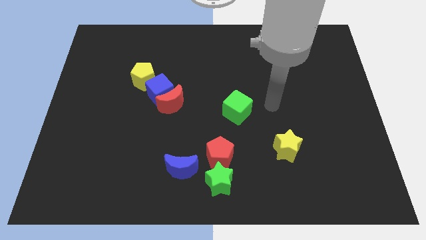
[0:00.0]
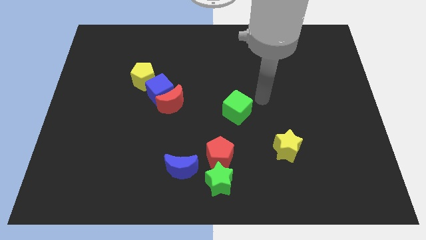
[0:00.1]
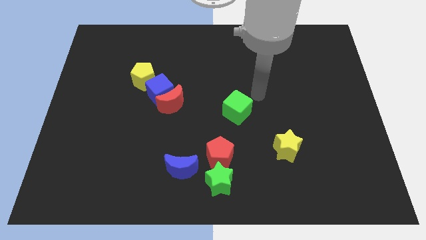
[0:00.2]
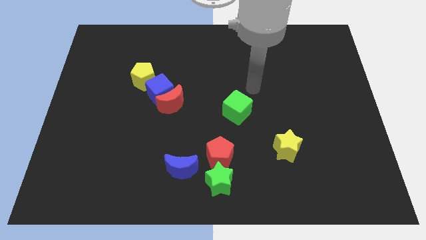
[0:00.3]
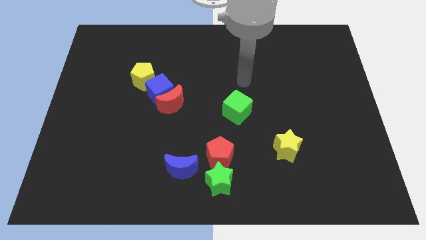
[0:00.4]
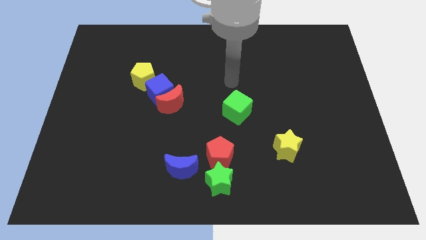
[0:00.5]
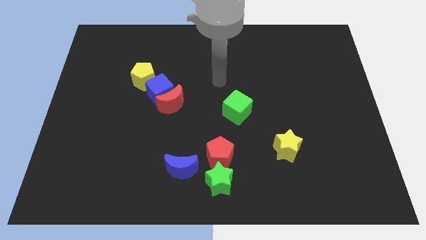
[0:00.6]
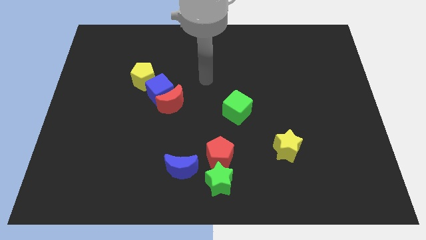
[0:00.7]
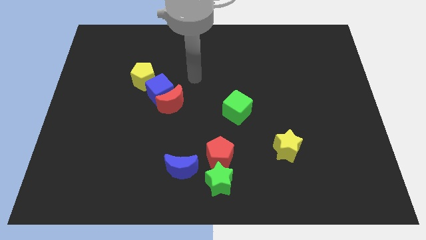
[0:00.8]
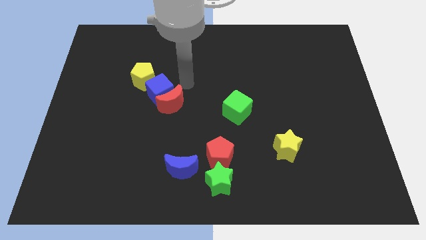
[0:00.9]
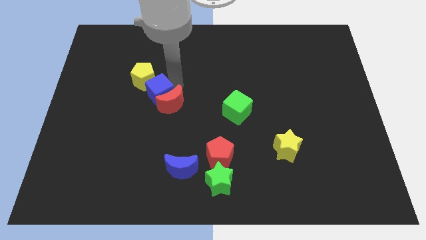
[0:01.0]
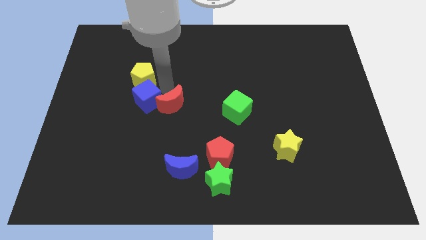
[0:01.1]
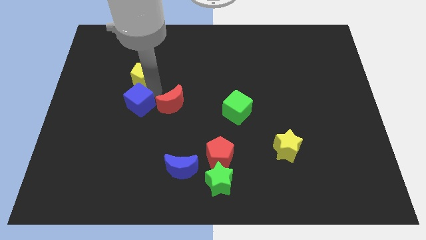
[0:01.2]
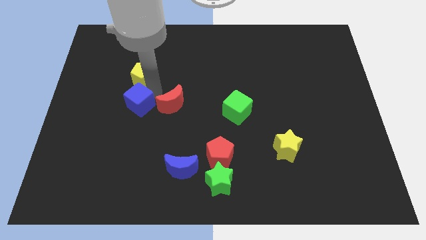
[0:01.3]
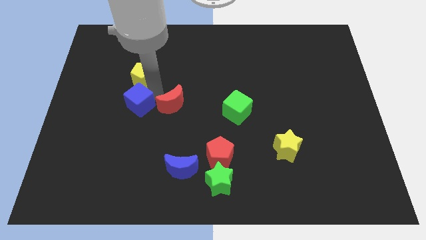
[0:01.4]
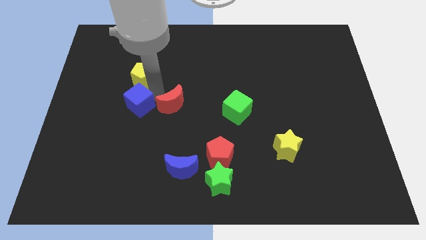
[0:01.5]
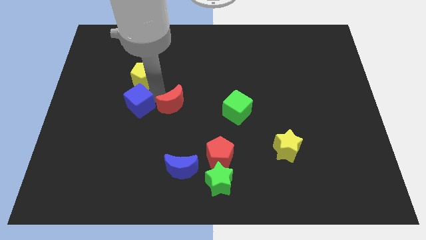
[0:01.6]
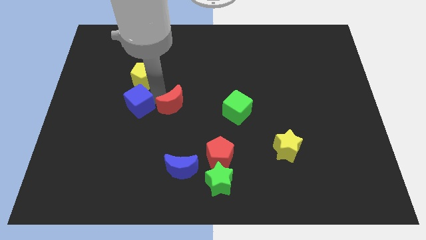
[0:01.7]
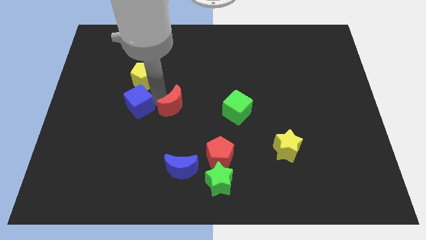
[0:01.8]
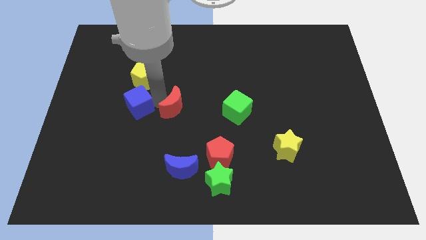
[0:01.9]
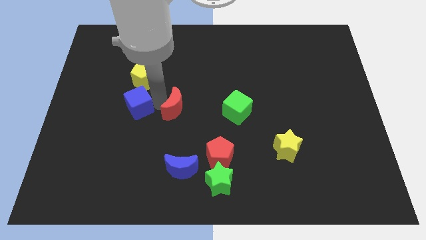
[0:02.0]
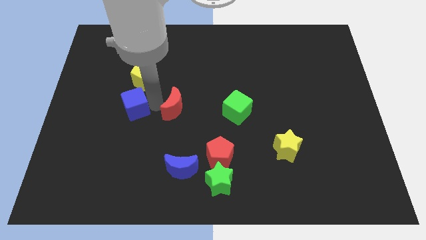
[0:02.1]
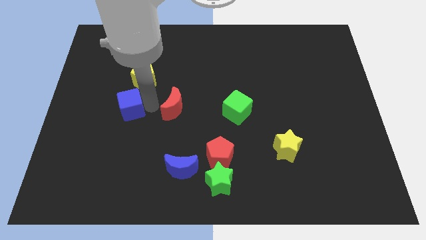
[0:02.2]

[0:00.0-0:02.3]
pull the red moon apart from the blue cube

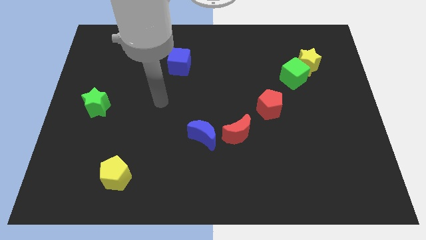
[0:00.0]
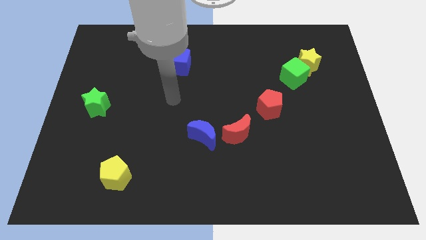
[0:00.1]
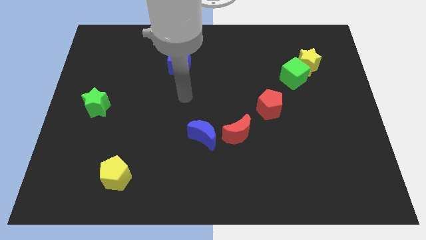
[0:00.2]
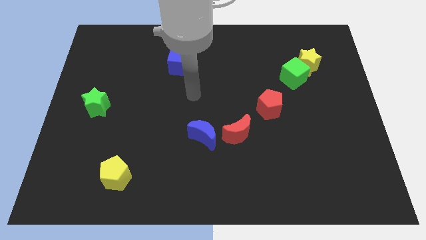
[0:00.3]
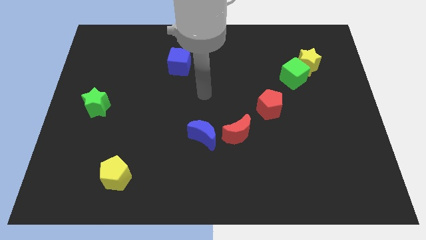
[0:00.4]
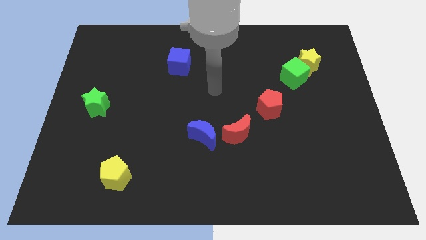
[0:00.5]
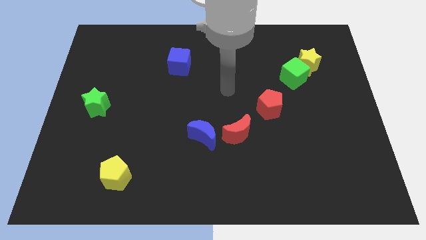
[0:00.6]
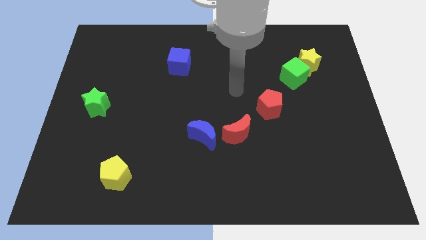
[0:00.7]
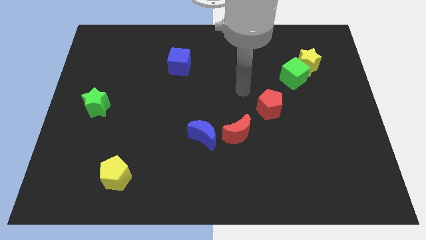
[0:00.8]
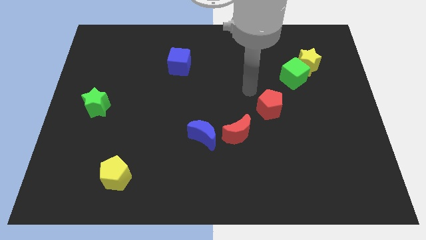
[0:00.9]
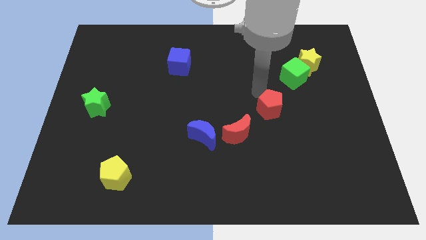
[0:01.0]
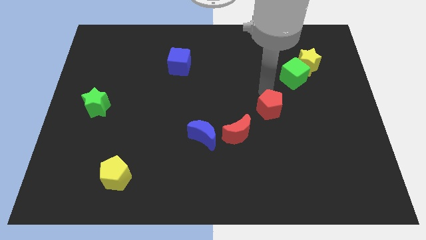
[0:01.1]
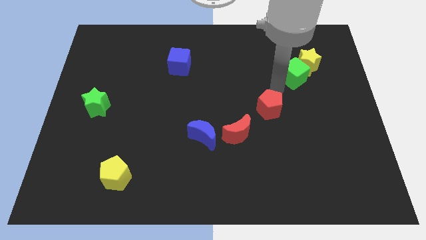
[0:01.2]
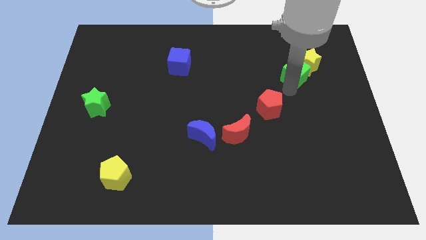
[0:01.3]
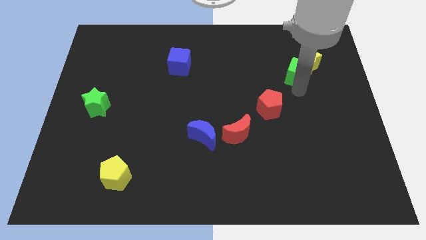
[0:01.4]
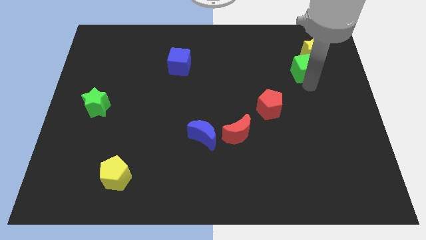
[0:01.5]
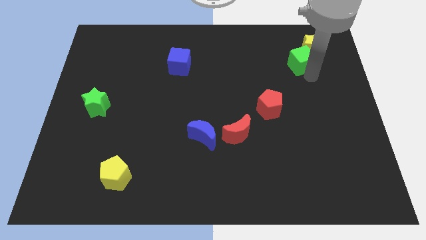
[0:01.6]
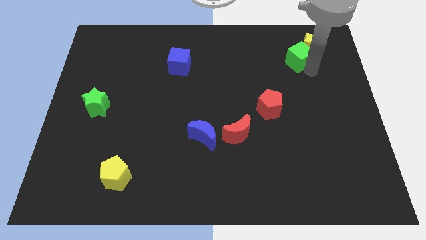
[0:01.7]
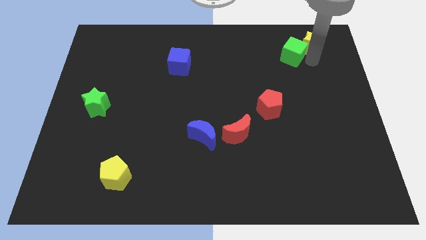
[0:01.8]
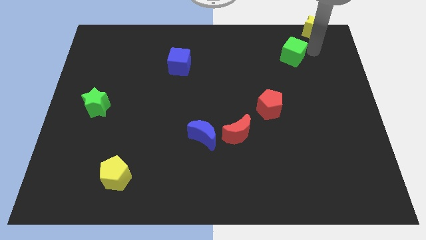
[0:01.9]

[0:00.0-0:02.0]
move the green cube away from the yellow star

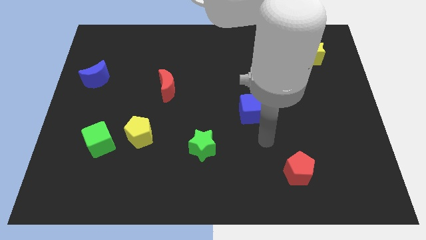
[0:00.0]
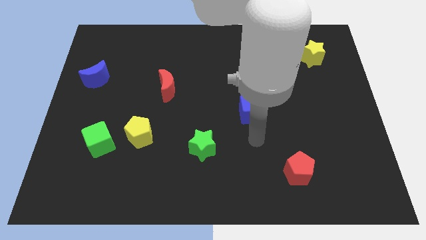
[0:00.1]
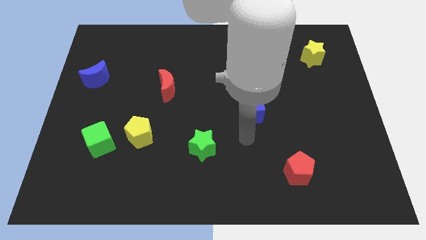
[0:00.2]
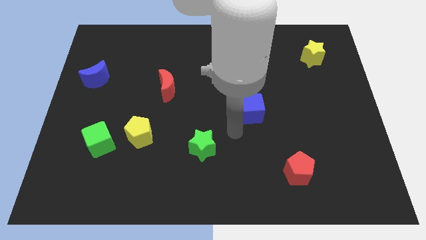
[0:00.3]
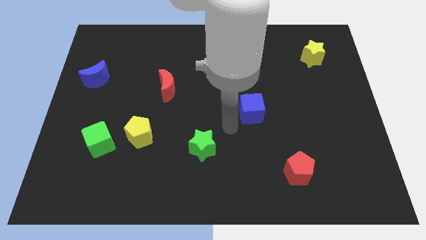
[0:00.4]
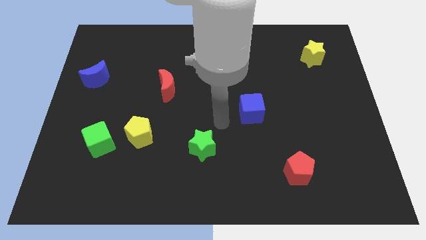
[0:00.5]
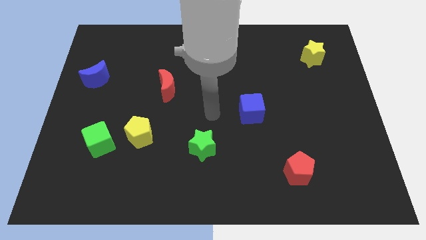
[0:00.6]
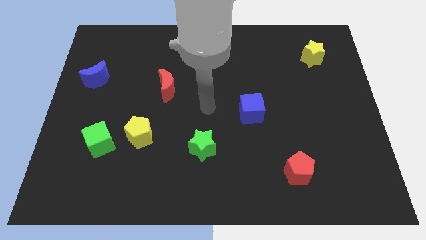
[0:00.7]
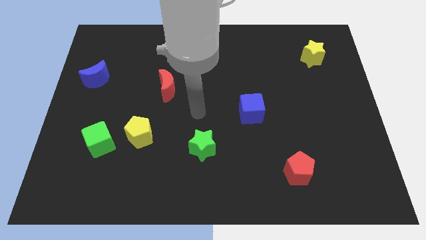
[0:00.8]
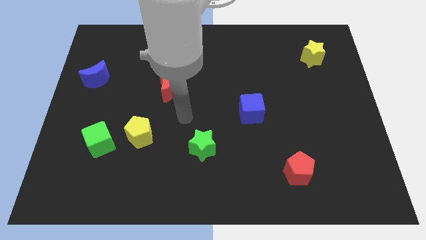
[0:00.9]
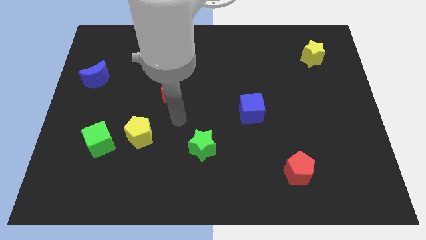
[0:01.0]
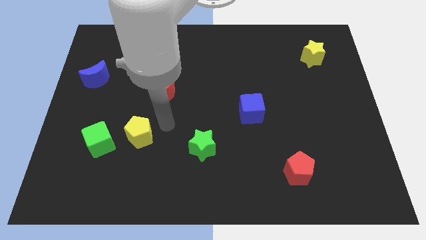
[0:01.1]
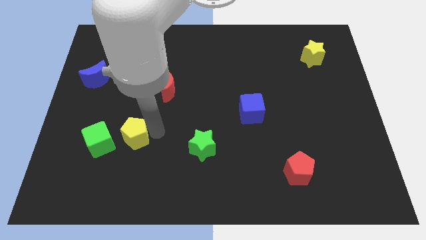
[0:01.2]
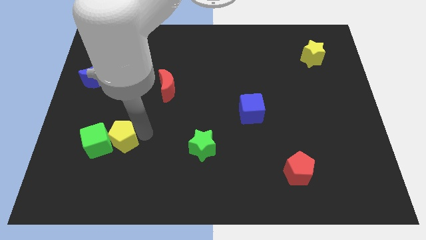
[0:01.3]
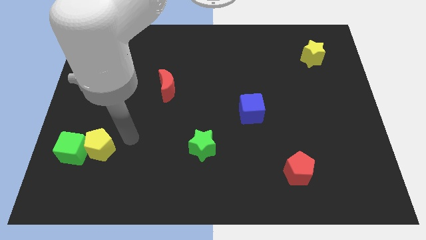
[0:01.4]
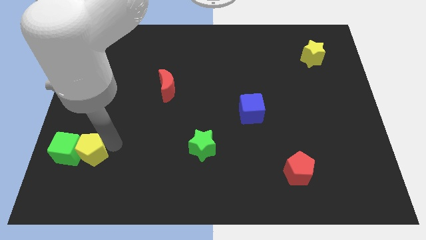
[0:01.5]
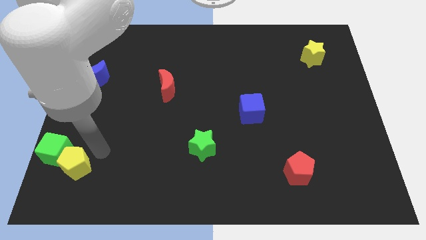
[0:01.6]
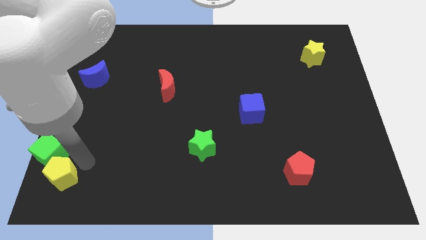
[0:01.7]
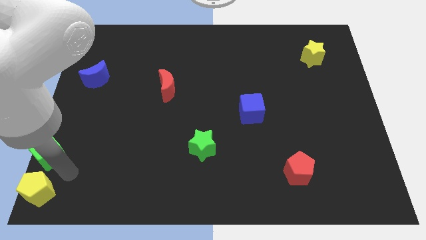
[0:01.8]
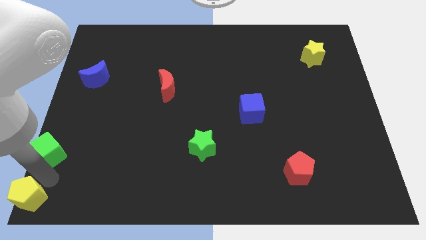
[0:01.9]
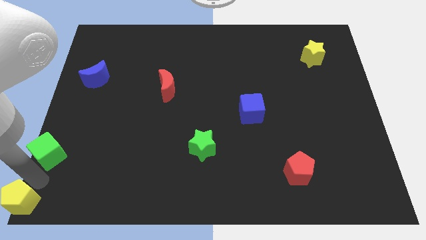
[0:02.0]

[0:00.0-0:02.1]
separate the green cube from the yellow pentagon

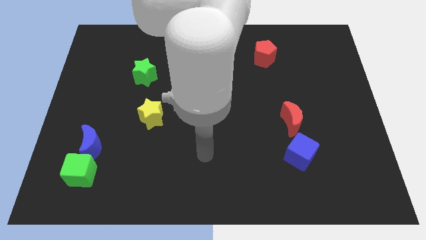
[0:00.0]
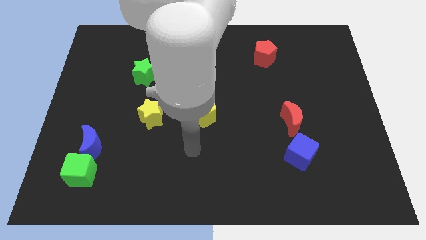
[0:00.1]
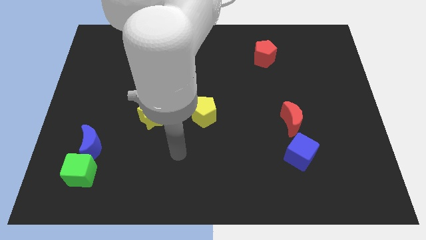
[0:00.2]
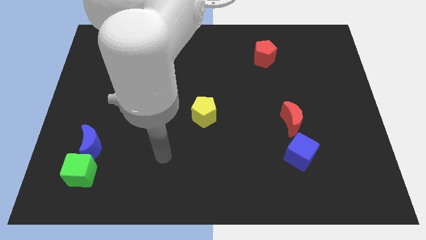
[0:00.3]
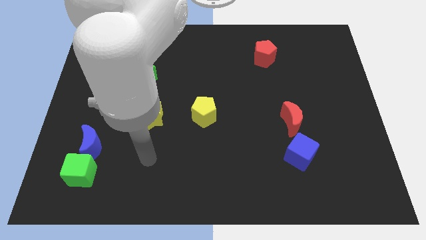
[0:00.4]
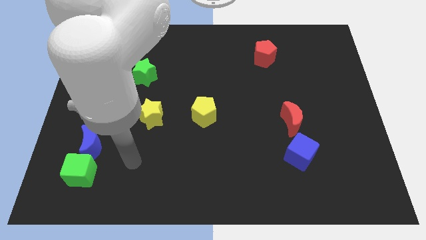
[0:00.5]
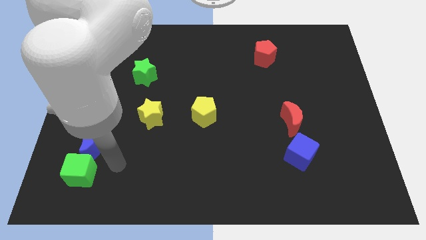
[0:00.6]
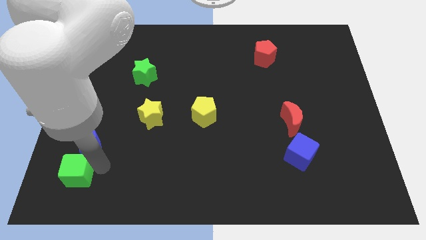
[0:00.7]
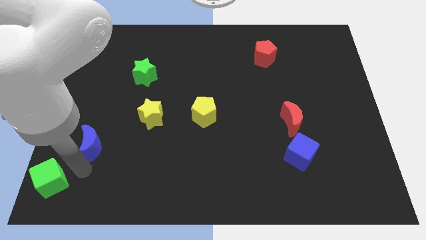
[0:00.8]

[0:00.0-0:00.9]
pull the blue moon apart from the green cube

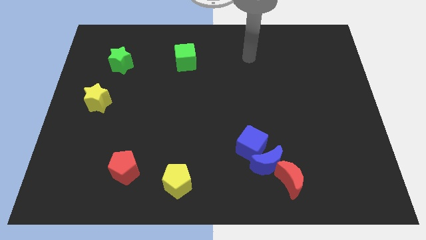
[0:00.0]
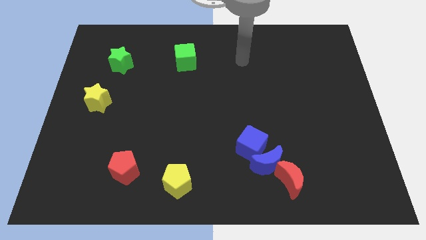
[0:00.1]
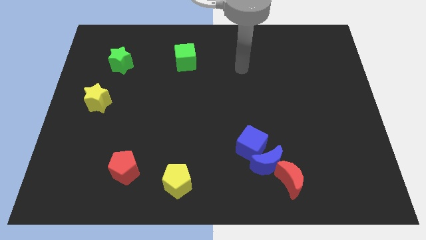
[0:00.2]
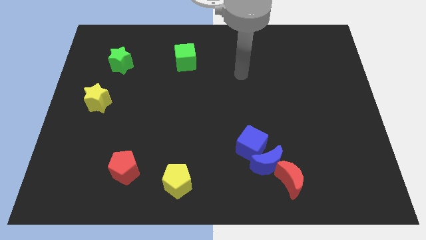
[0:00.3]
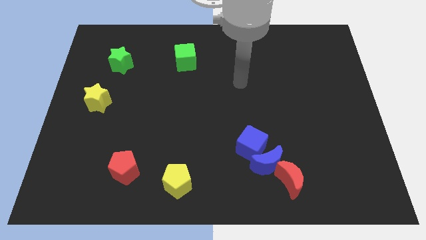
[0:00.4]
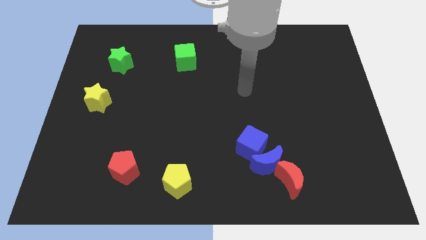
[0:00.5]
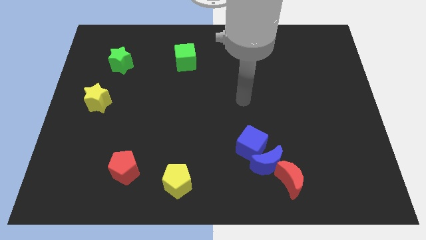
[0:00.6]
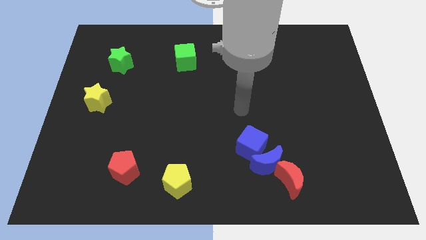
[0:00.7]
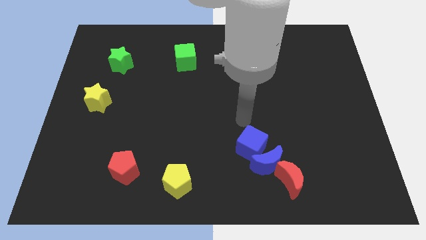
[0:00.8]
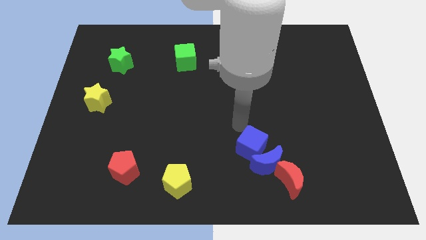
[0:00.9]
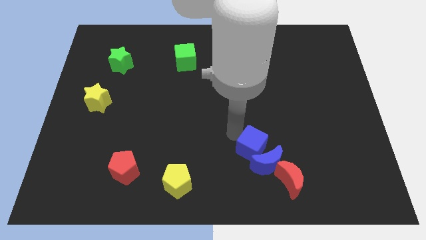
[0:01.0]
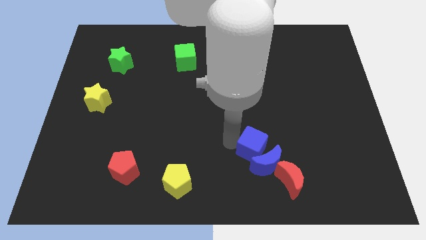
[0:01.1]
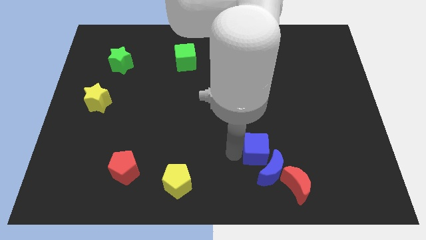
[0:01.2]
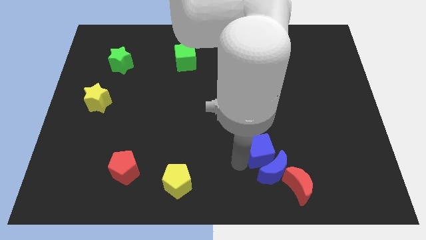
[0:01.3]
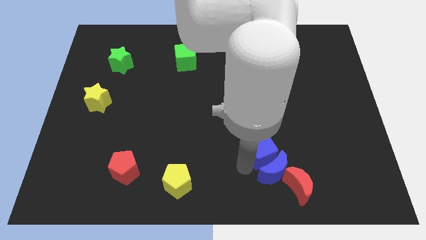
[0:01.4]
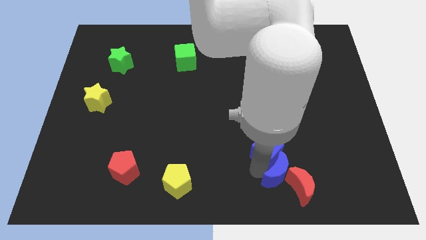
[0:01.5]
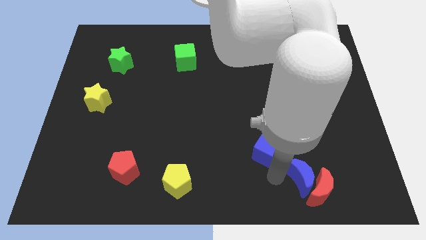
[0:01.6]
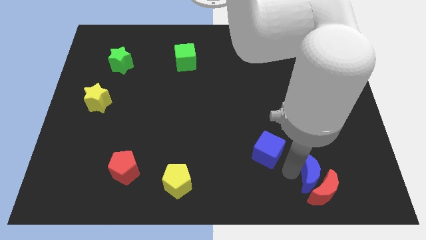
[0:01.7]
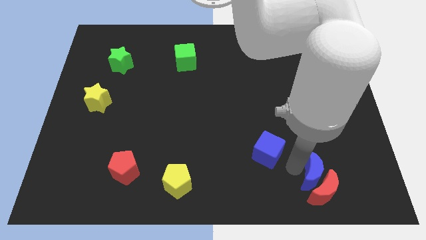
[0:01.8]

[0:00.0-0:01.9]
move the blue cube away from the blue moon

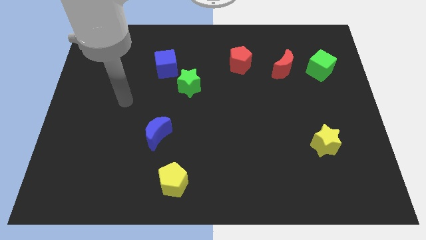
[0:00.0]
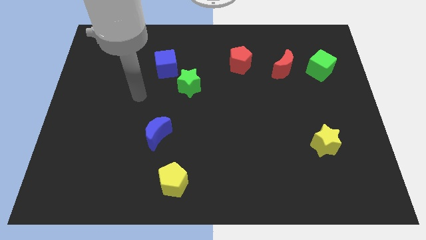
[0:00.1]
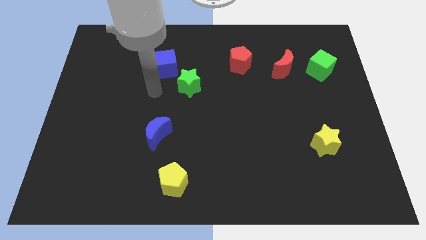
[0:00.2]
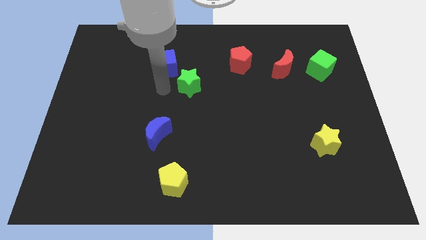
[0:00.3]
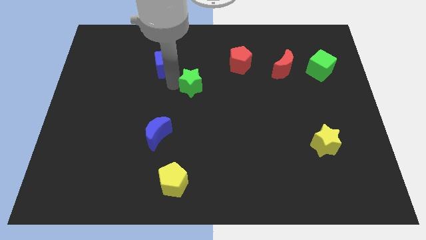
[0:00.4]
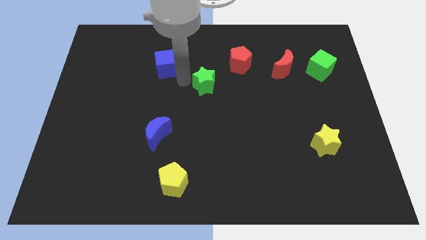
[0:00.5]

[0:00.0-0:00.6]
separate the blue cube from the green star